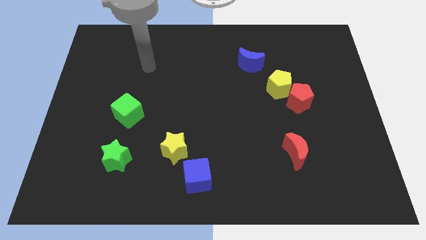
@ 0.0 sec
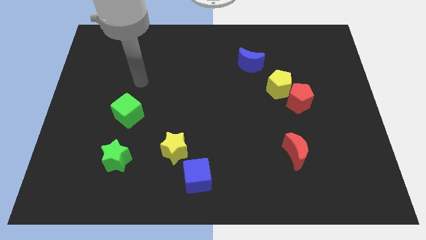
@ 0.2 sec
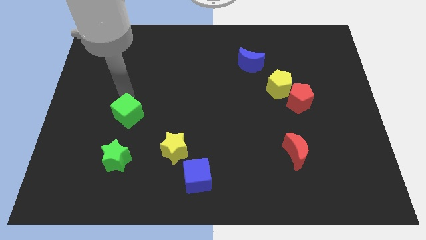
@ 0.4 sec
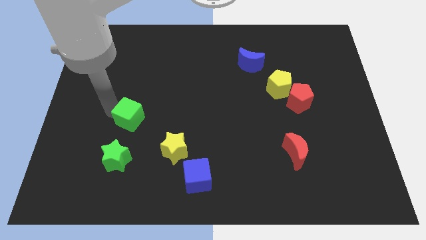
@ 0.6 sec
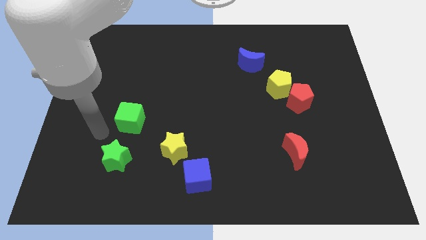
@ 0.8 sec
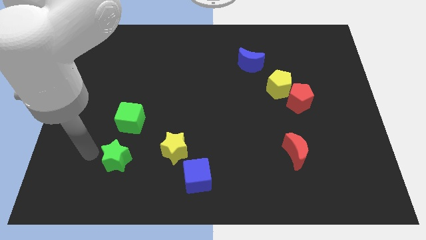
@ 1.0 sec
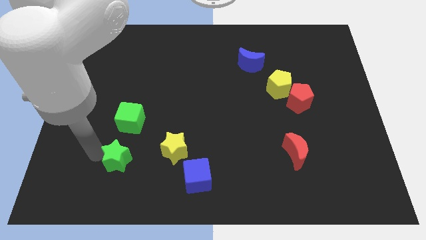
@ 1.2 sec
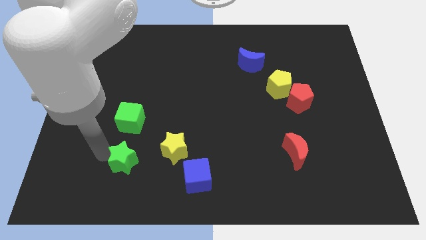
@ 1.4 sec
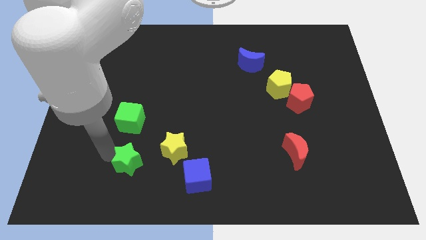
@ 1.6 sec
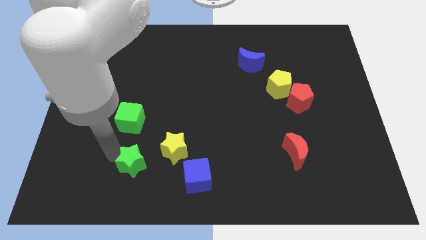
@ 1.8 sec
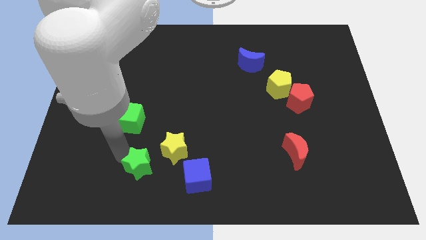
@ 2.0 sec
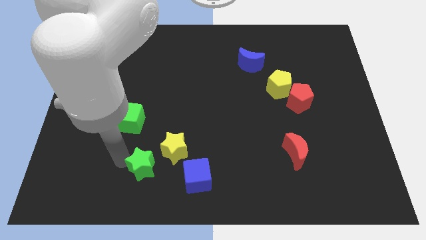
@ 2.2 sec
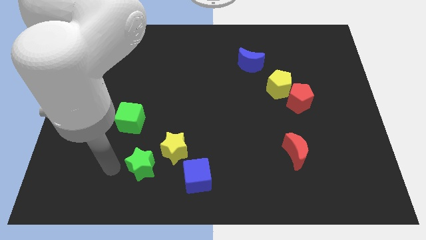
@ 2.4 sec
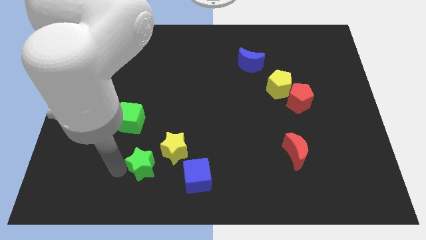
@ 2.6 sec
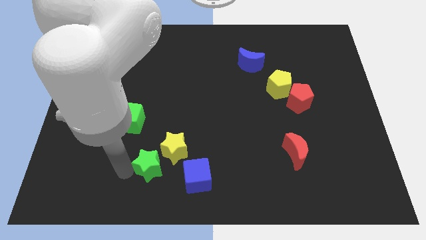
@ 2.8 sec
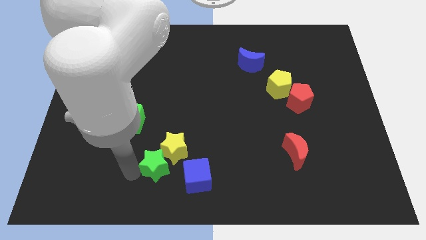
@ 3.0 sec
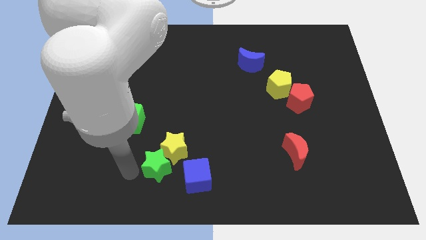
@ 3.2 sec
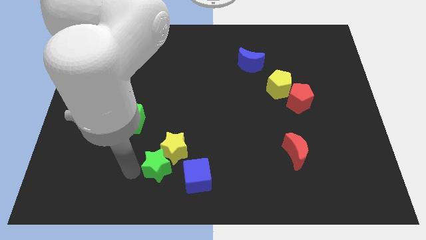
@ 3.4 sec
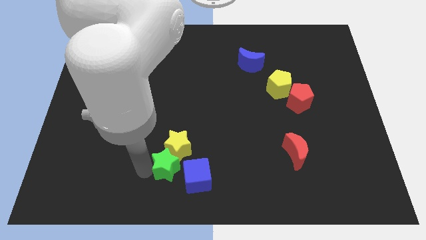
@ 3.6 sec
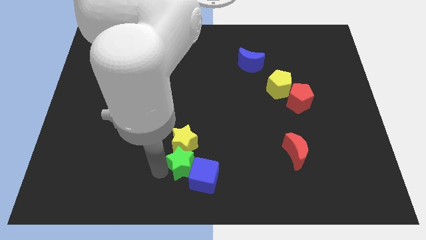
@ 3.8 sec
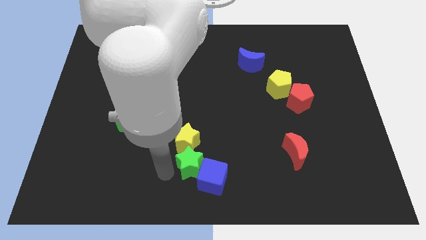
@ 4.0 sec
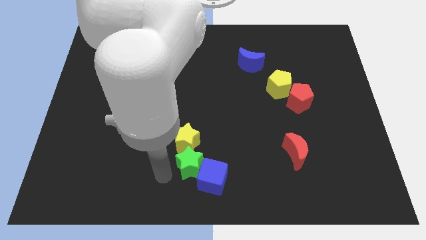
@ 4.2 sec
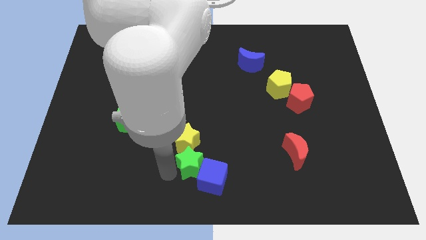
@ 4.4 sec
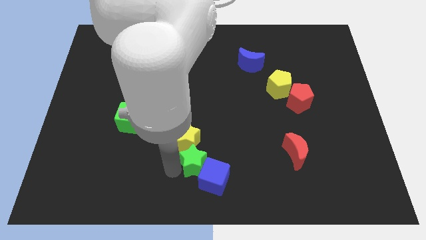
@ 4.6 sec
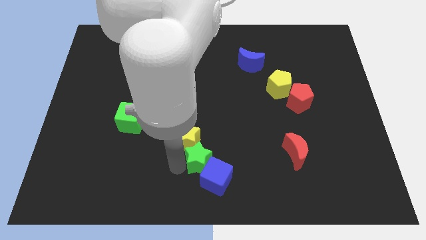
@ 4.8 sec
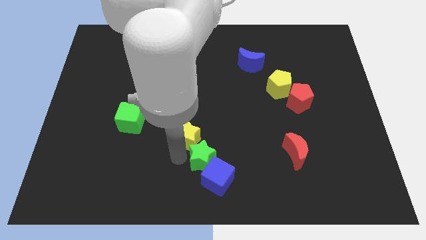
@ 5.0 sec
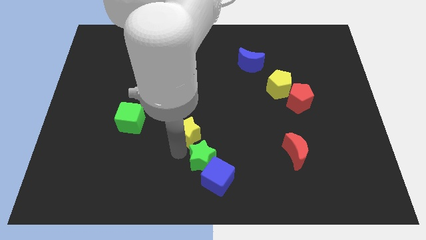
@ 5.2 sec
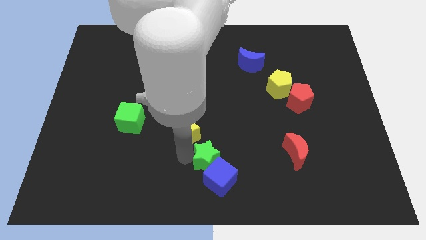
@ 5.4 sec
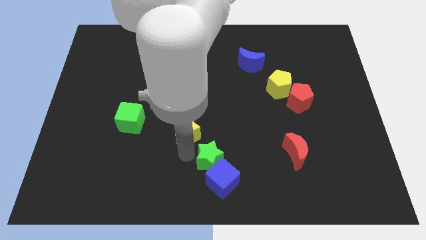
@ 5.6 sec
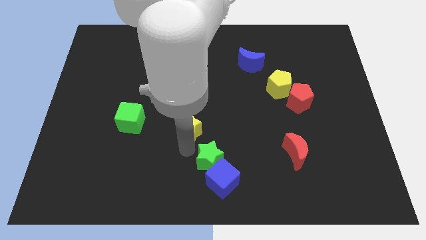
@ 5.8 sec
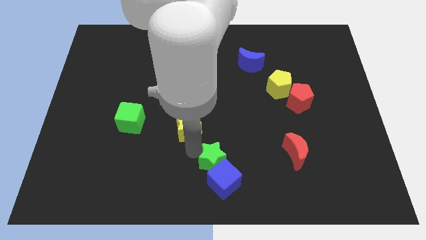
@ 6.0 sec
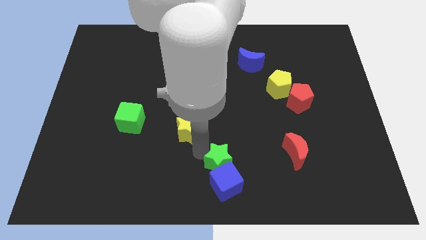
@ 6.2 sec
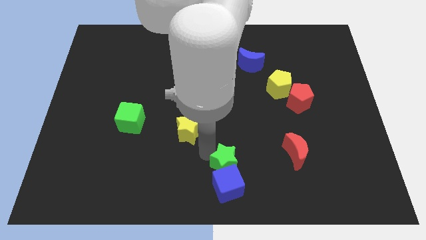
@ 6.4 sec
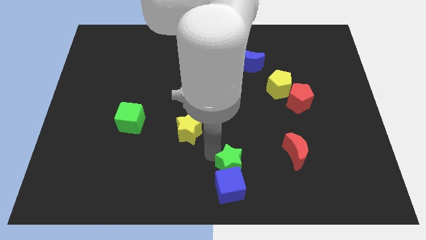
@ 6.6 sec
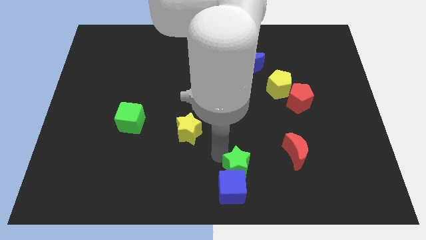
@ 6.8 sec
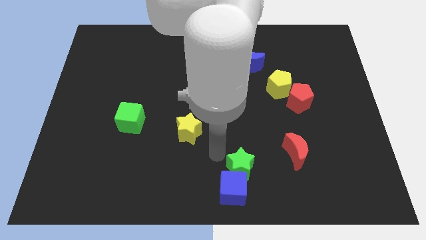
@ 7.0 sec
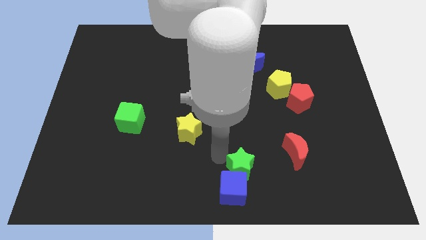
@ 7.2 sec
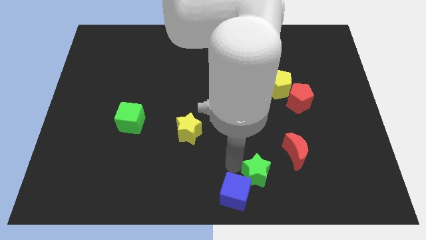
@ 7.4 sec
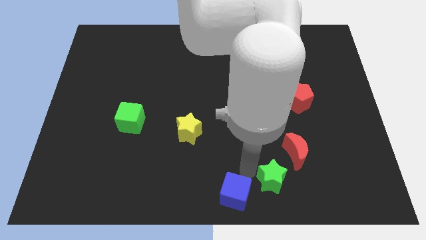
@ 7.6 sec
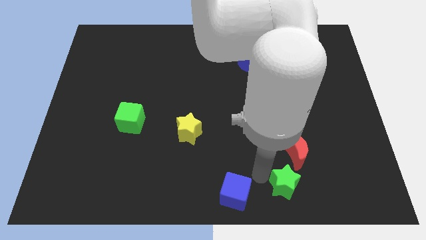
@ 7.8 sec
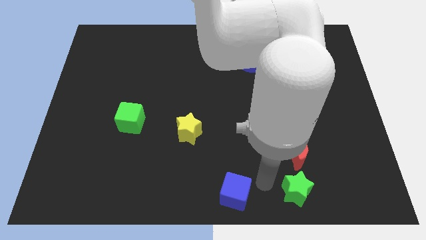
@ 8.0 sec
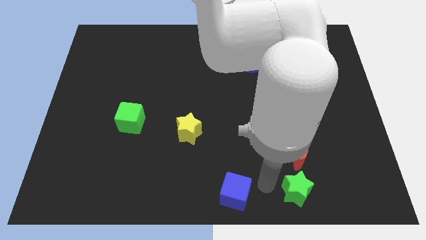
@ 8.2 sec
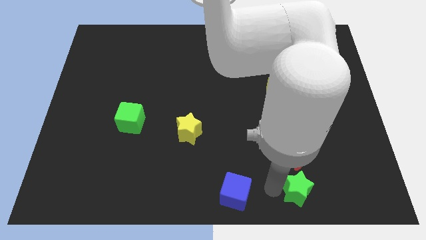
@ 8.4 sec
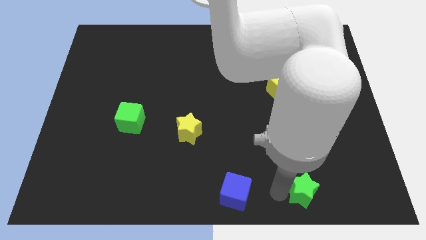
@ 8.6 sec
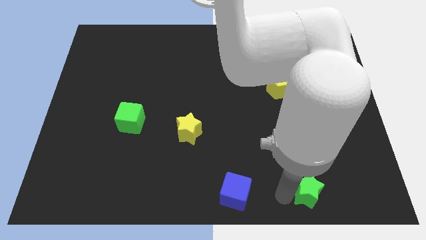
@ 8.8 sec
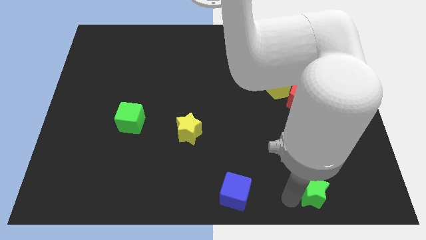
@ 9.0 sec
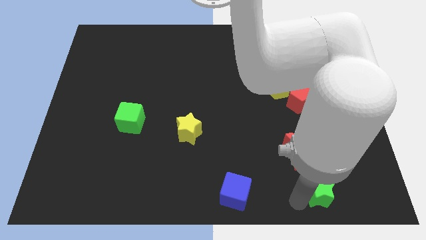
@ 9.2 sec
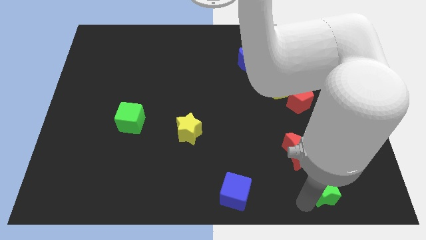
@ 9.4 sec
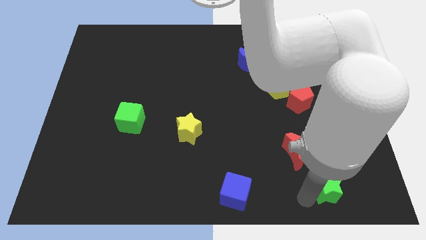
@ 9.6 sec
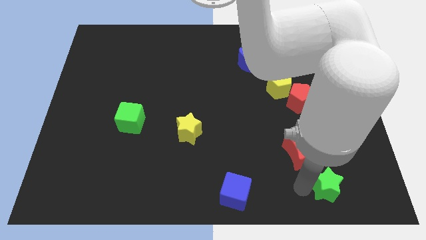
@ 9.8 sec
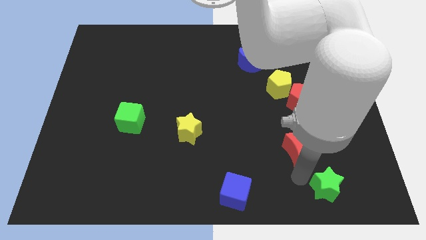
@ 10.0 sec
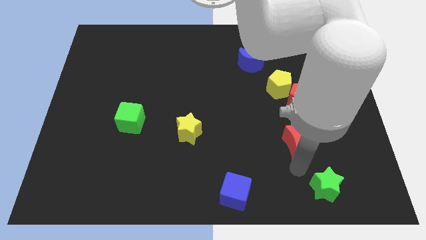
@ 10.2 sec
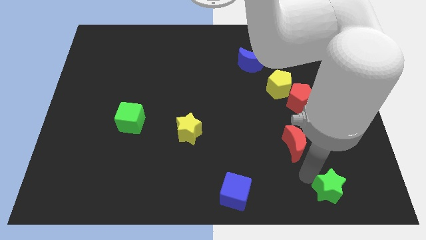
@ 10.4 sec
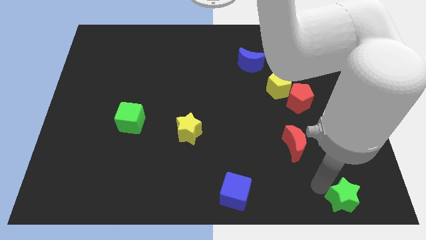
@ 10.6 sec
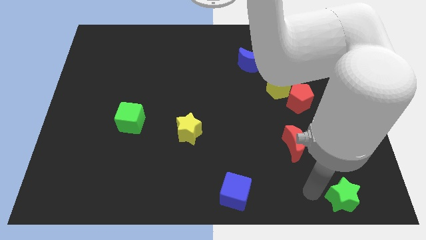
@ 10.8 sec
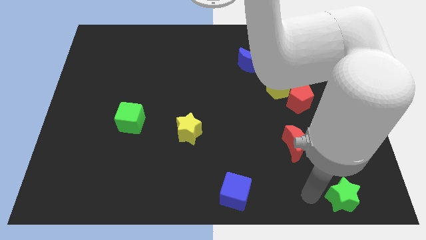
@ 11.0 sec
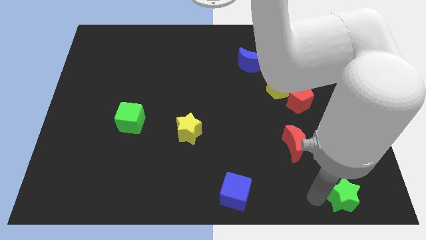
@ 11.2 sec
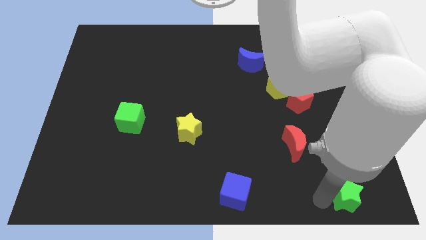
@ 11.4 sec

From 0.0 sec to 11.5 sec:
slide the green star to the bottom right

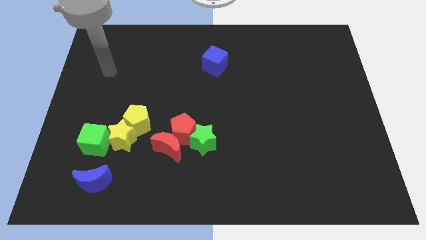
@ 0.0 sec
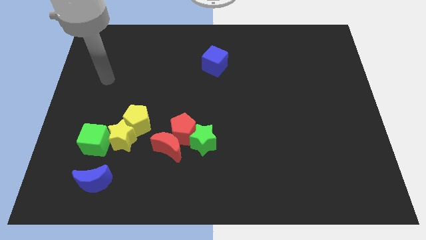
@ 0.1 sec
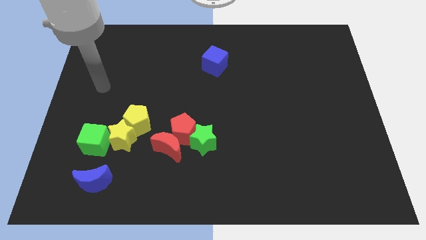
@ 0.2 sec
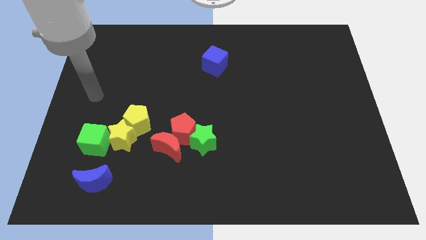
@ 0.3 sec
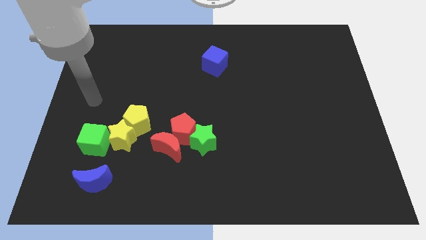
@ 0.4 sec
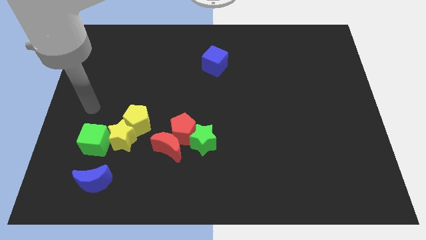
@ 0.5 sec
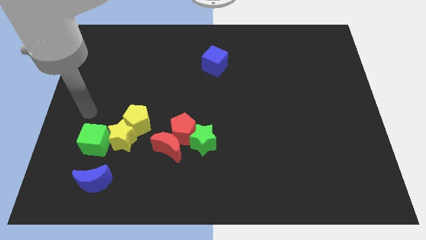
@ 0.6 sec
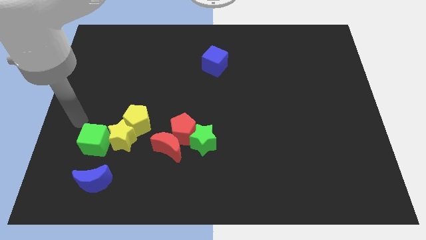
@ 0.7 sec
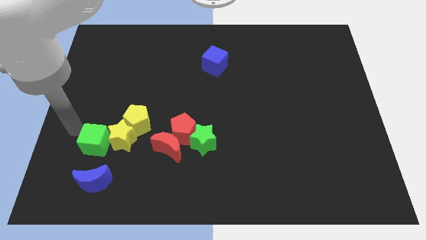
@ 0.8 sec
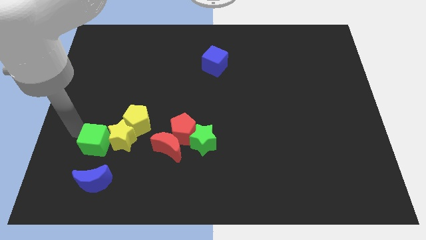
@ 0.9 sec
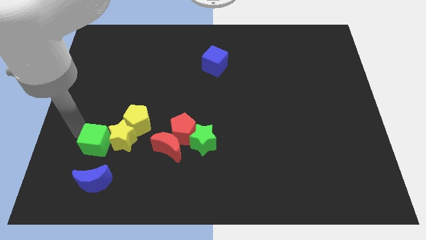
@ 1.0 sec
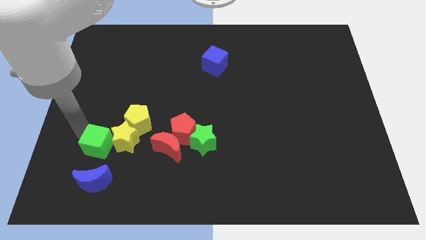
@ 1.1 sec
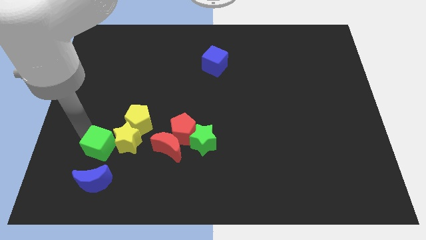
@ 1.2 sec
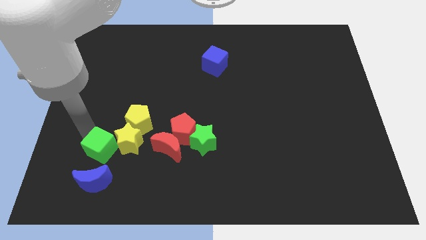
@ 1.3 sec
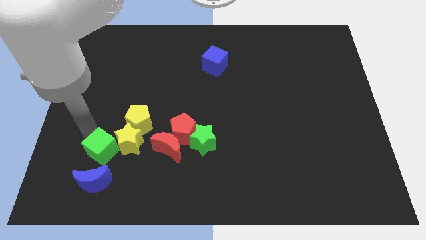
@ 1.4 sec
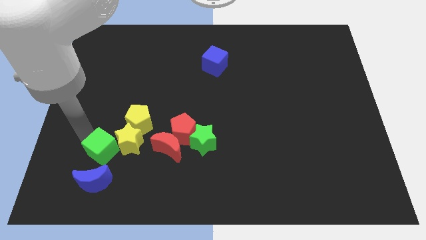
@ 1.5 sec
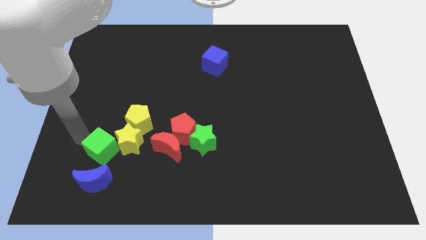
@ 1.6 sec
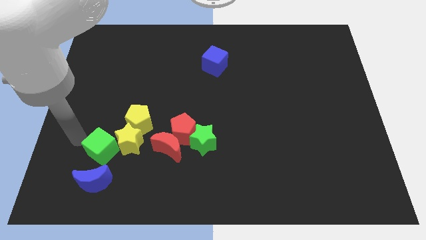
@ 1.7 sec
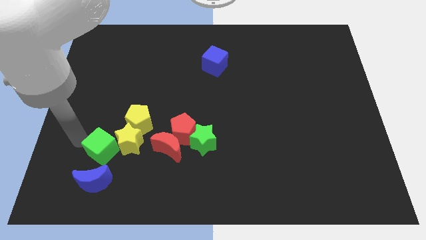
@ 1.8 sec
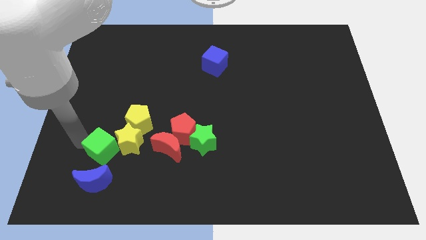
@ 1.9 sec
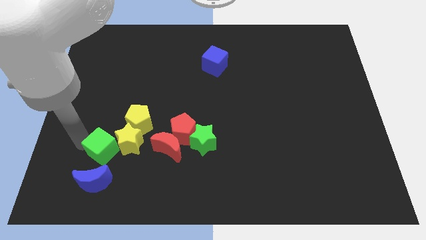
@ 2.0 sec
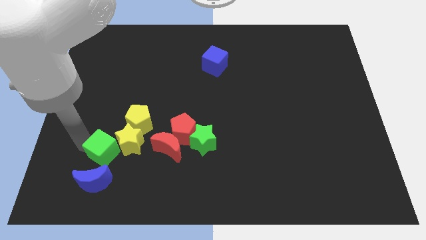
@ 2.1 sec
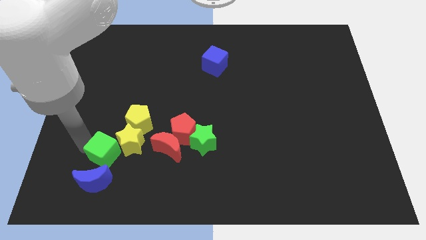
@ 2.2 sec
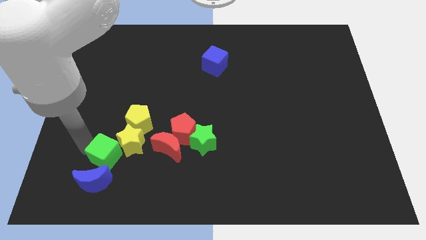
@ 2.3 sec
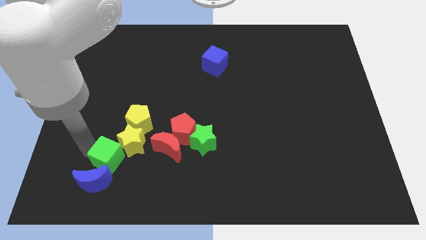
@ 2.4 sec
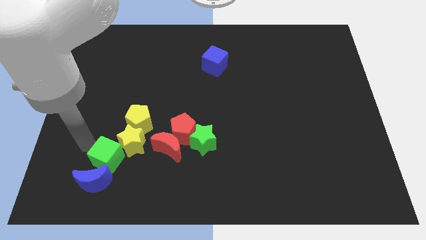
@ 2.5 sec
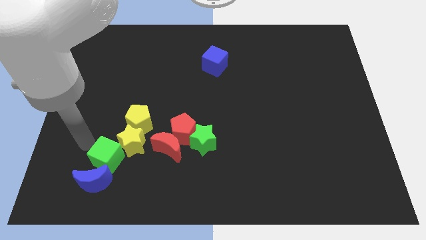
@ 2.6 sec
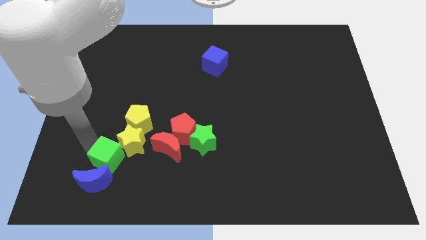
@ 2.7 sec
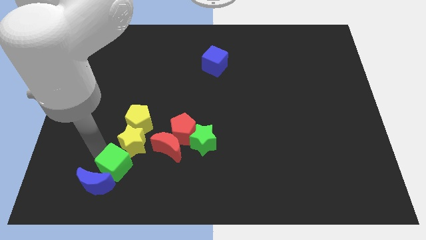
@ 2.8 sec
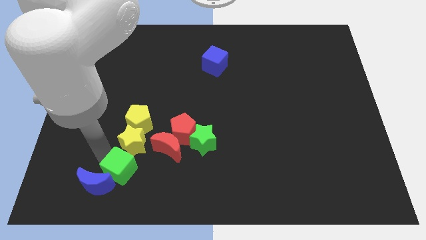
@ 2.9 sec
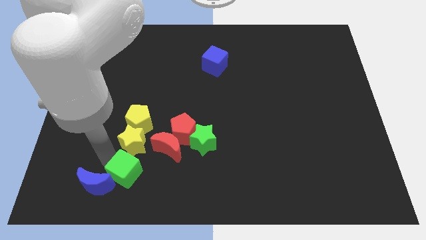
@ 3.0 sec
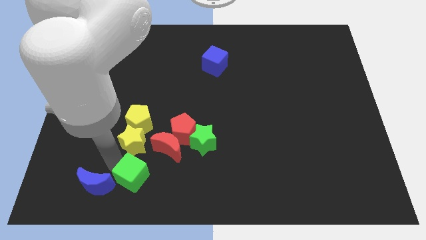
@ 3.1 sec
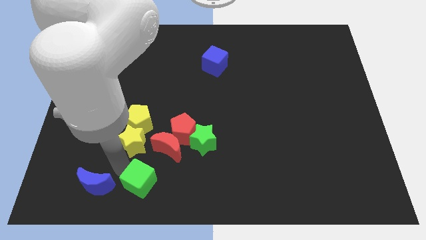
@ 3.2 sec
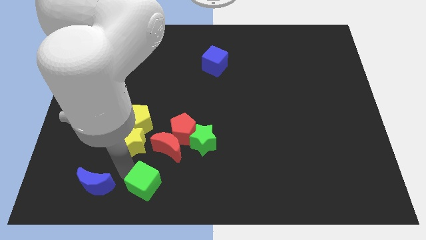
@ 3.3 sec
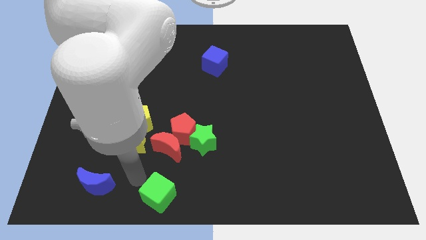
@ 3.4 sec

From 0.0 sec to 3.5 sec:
move the green cube to the bottom
